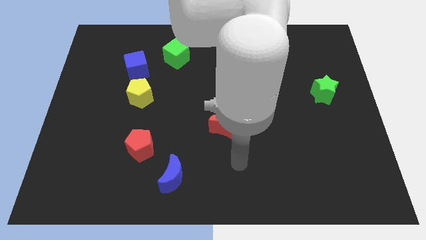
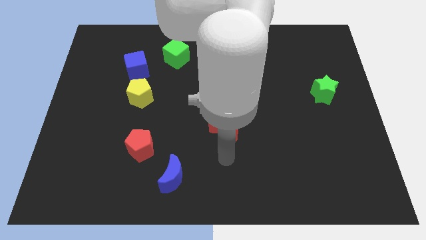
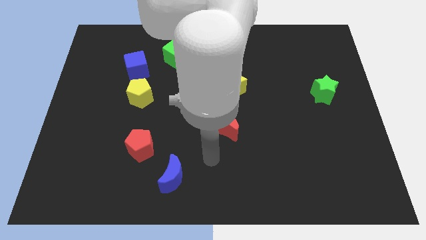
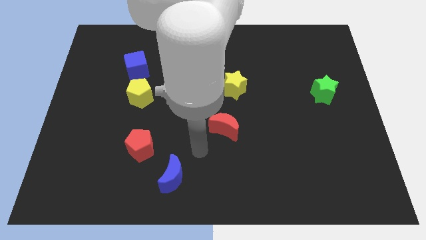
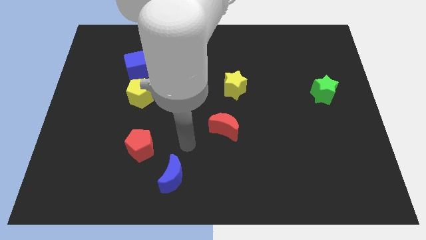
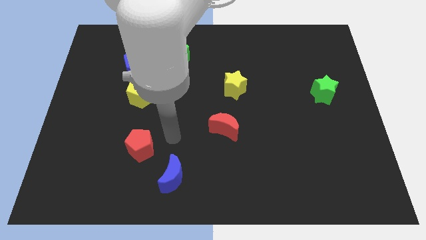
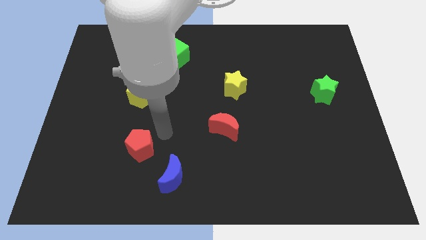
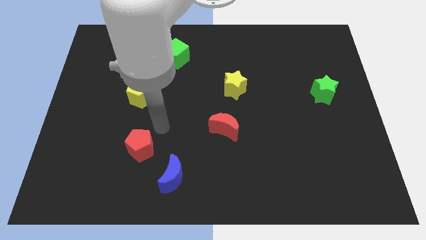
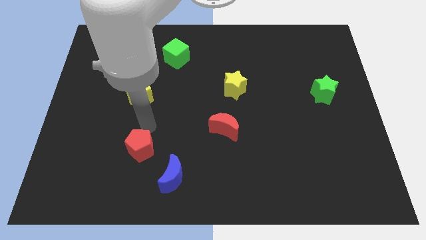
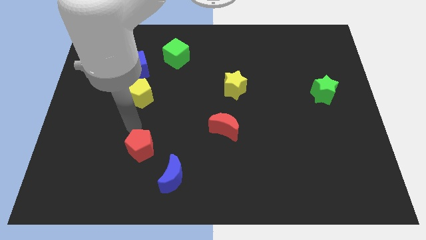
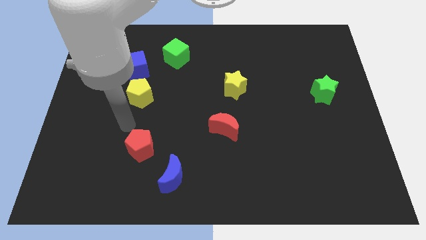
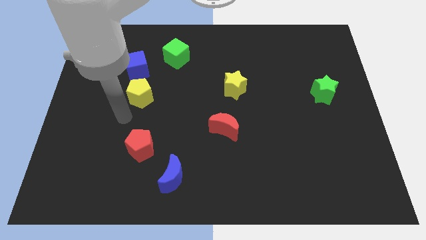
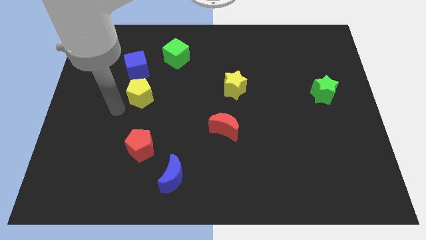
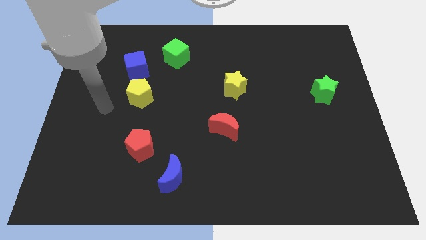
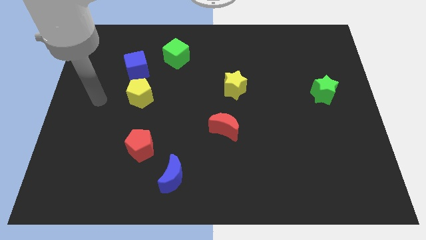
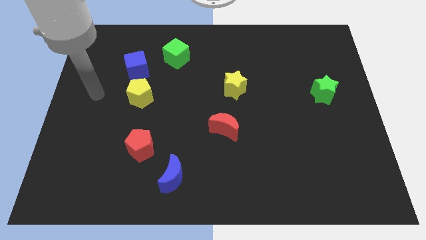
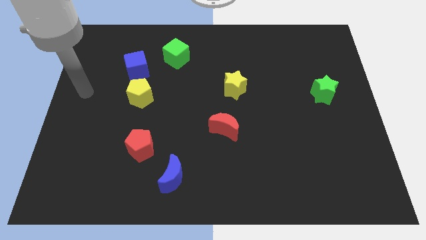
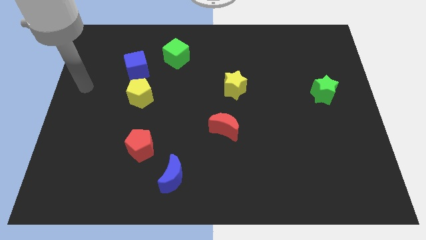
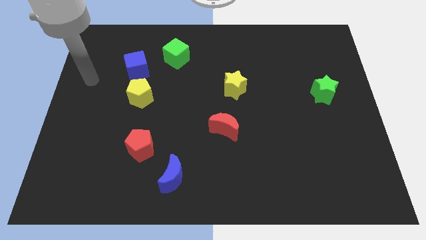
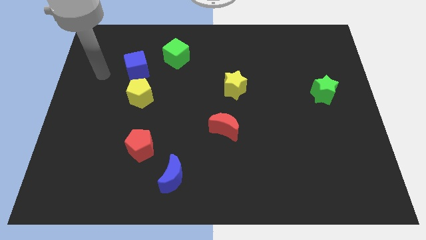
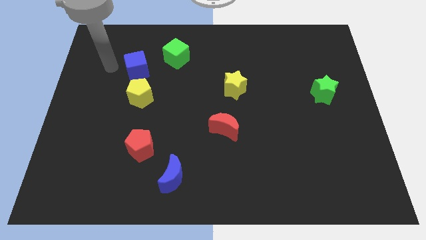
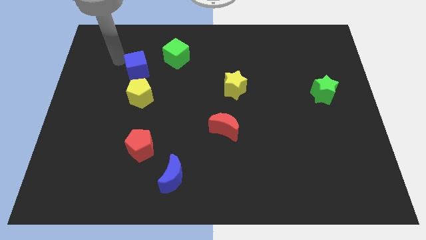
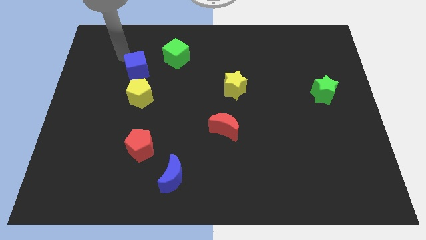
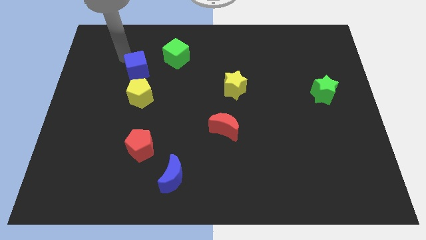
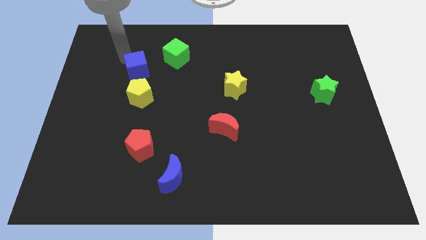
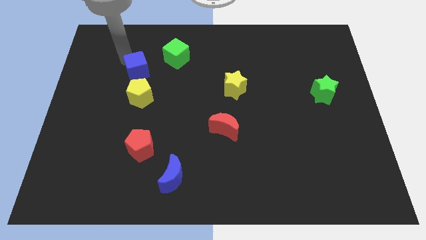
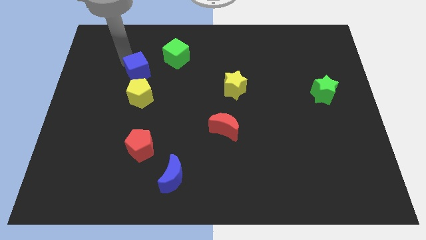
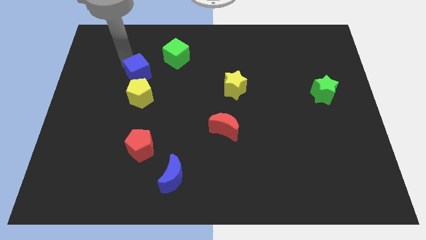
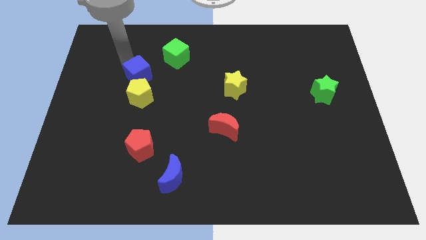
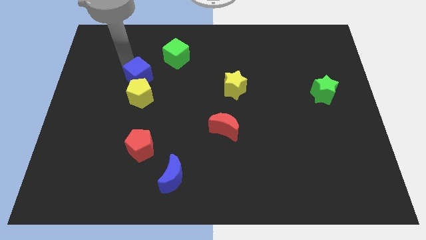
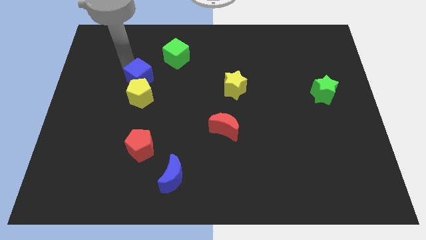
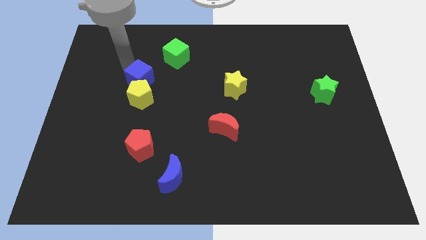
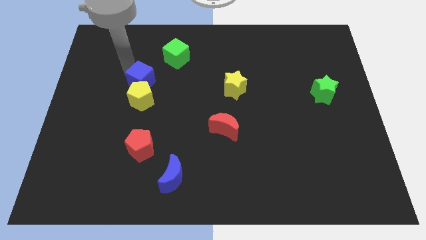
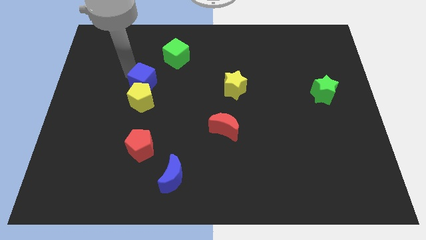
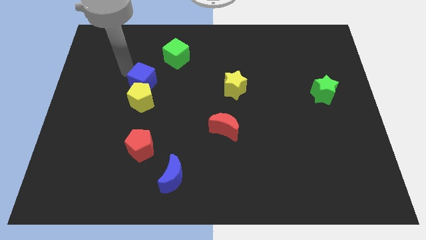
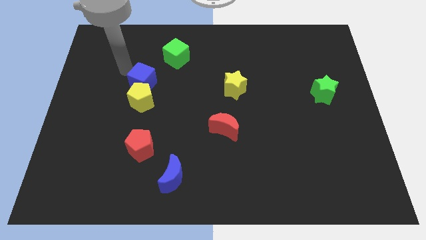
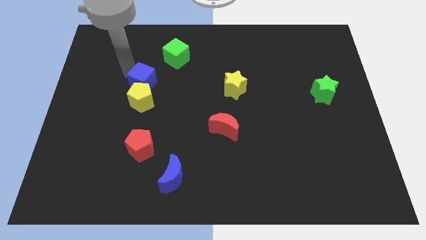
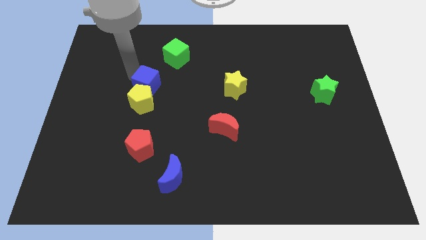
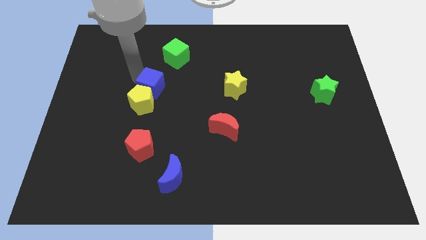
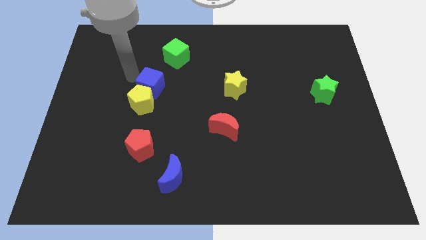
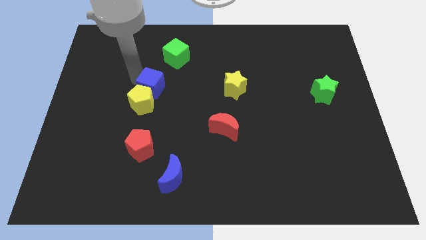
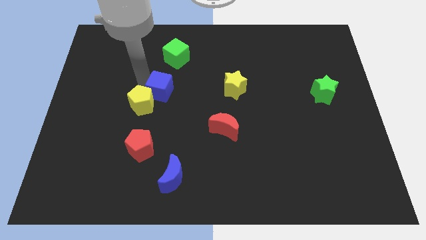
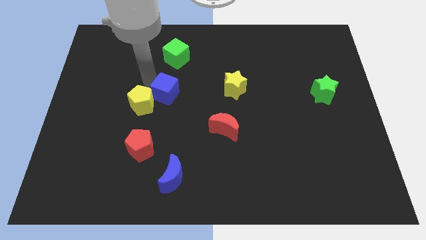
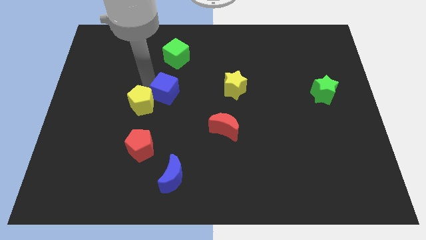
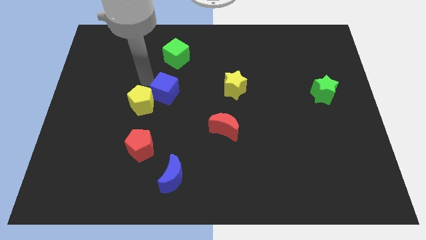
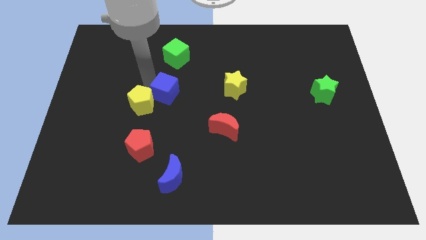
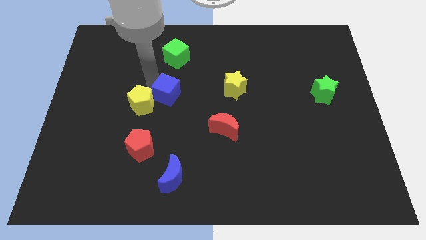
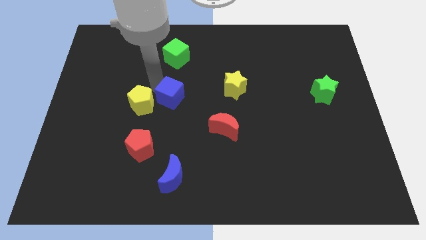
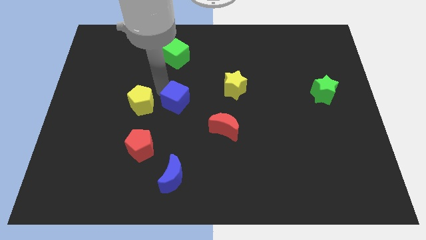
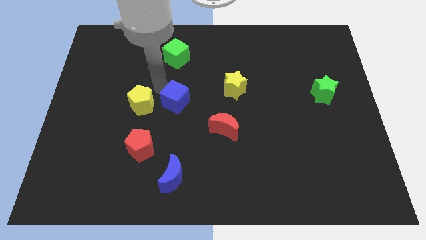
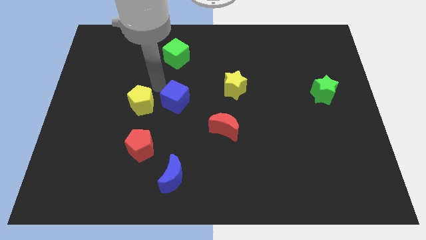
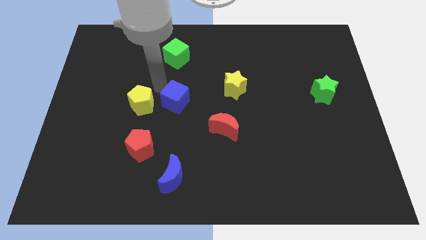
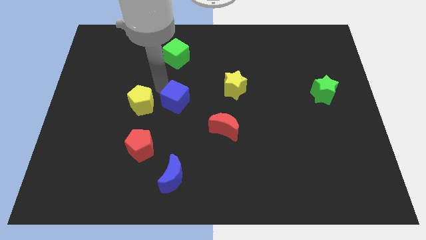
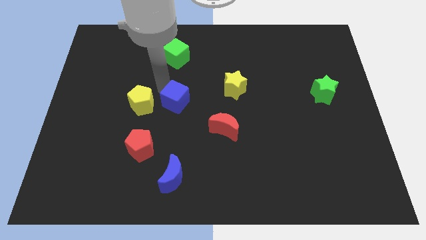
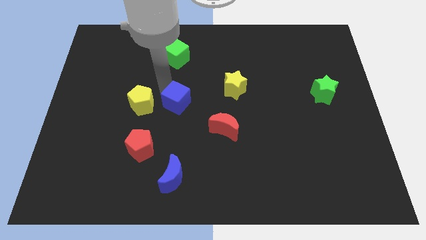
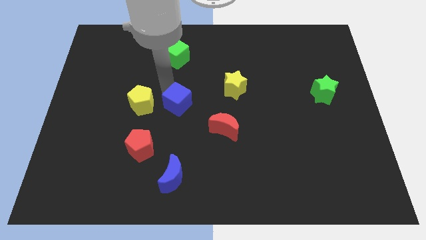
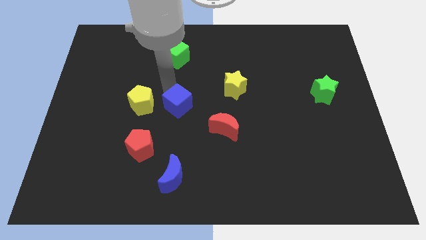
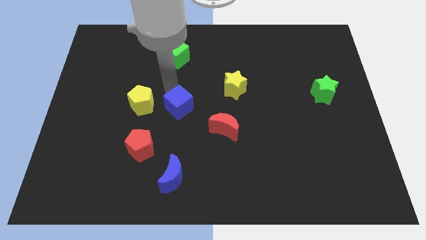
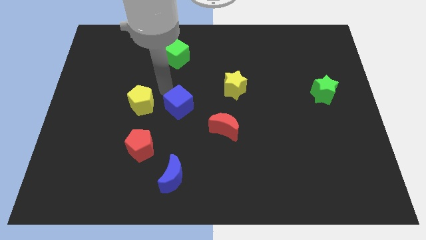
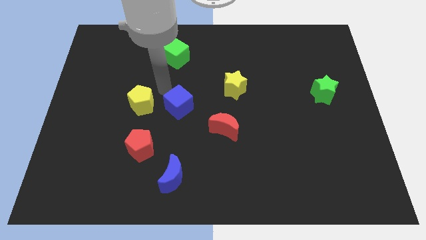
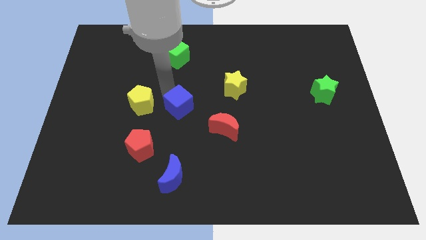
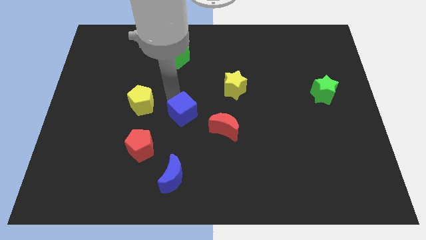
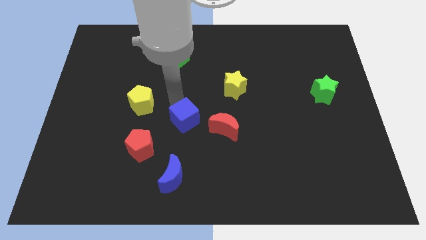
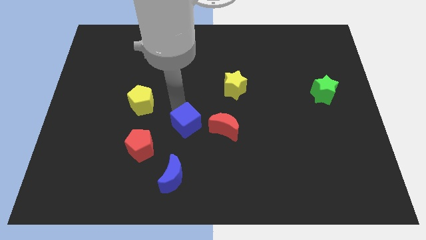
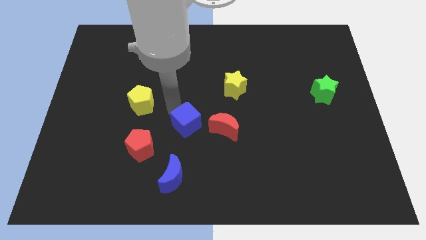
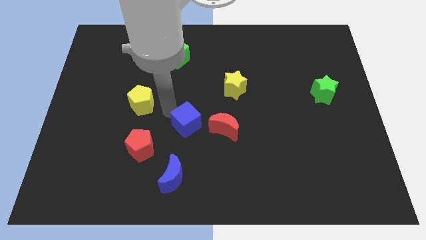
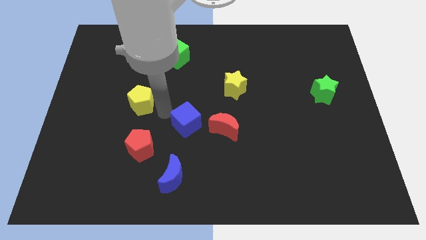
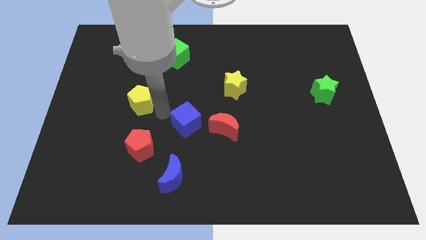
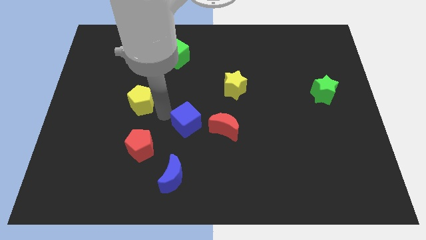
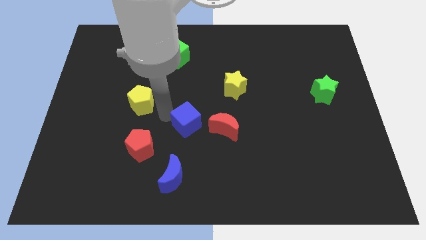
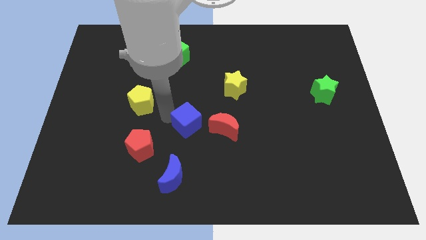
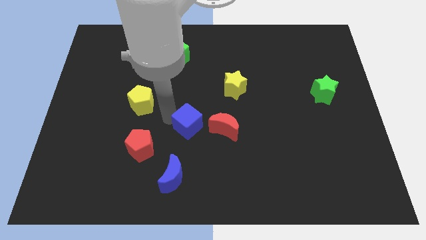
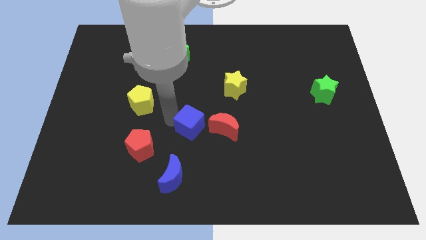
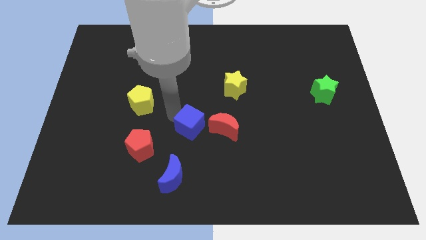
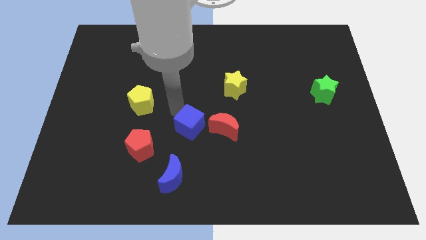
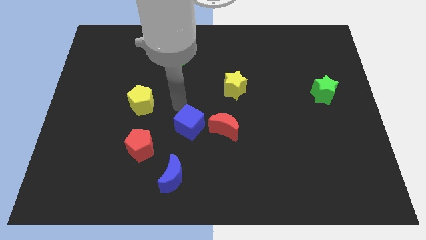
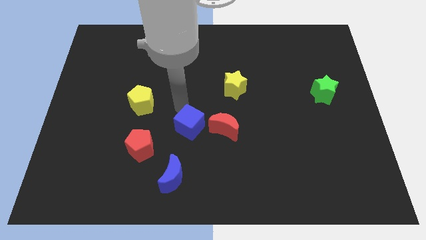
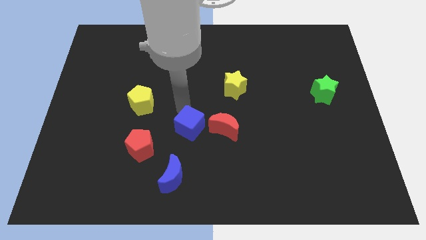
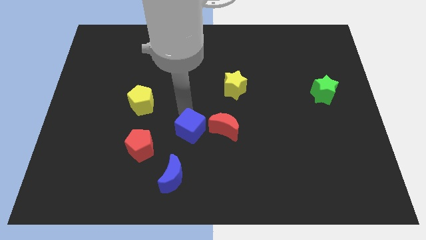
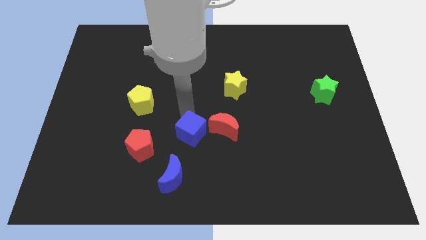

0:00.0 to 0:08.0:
slide the blue cube to the bottom left side of the red moon
